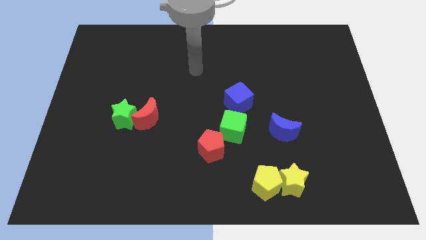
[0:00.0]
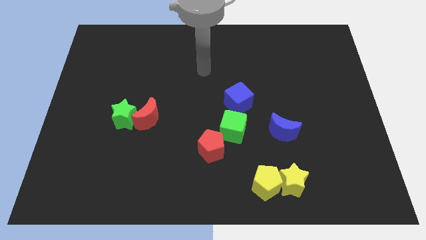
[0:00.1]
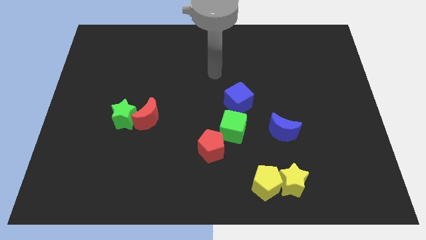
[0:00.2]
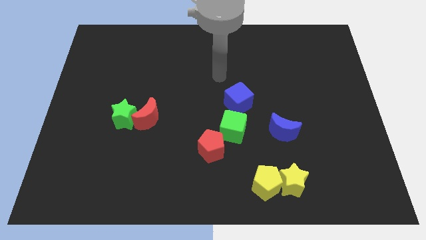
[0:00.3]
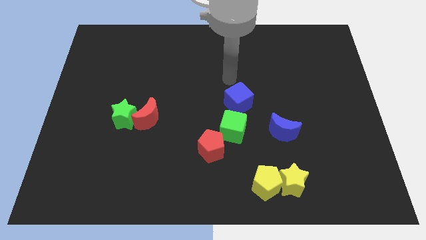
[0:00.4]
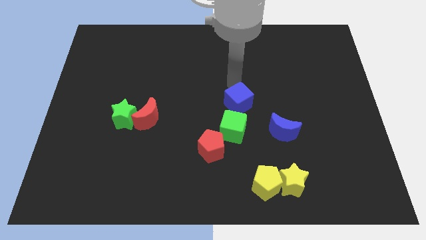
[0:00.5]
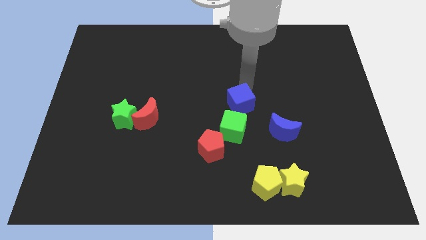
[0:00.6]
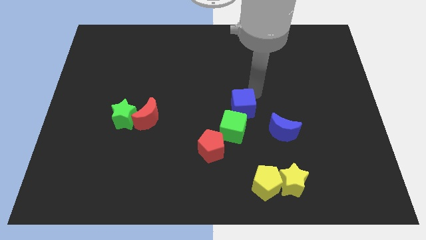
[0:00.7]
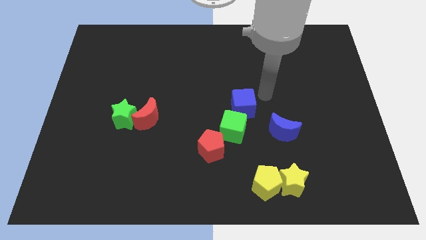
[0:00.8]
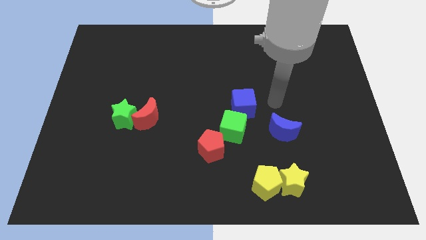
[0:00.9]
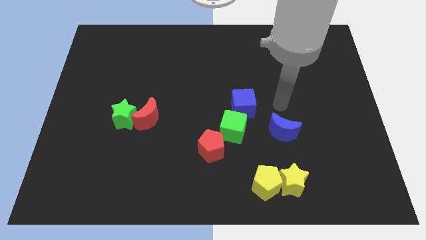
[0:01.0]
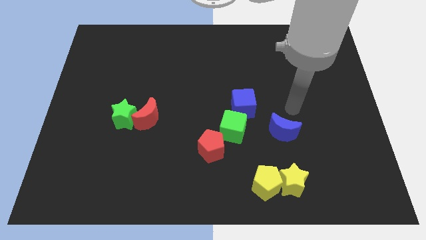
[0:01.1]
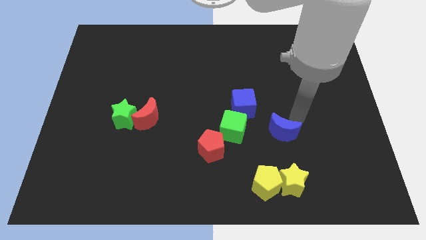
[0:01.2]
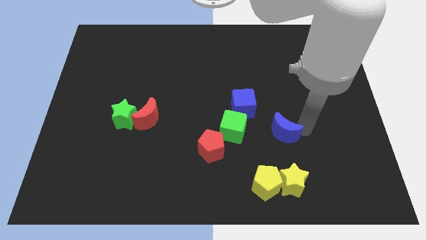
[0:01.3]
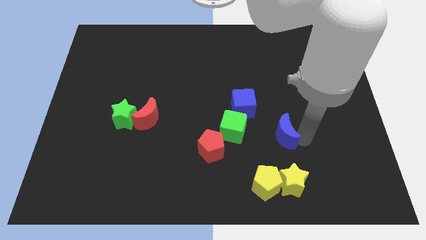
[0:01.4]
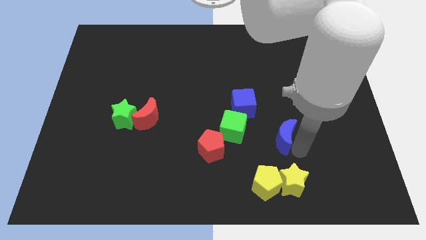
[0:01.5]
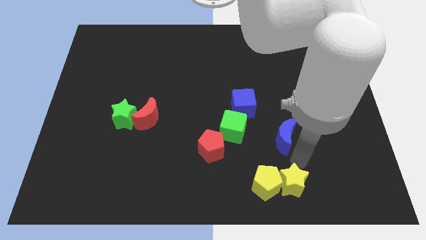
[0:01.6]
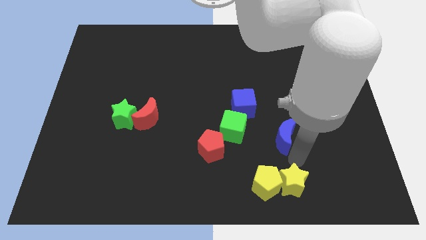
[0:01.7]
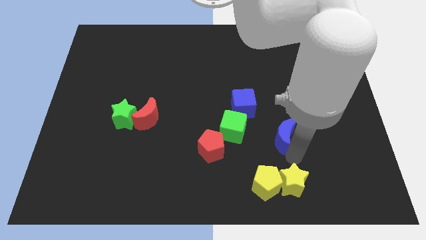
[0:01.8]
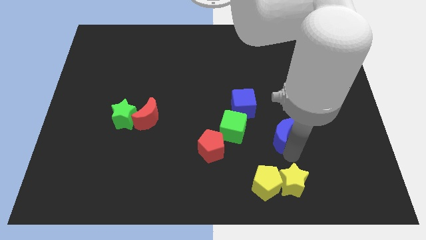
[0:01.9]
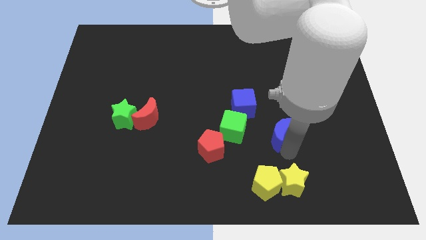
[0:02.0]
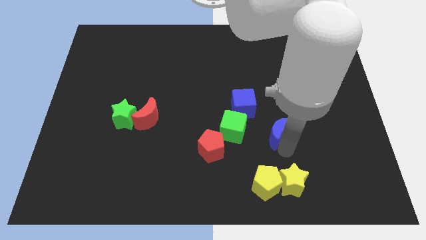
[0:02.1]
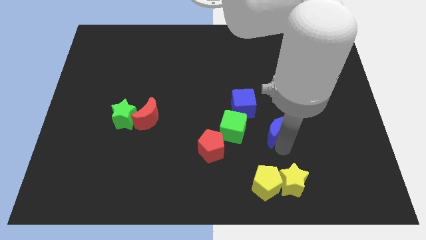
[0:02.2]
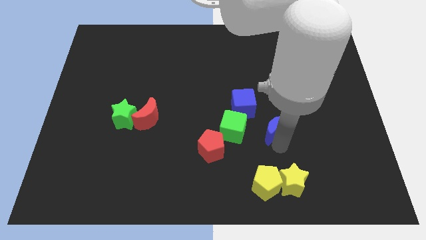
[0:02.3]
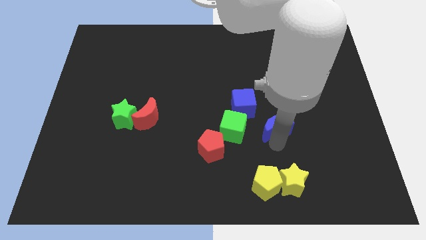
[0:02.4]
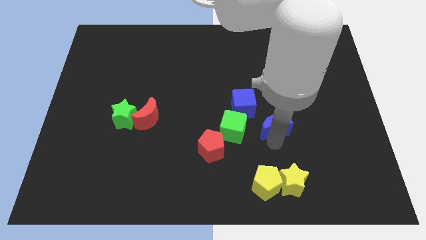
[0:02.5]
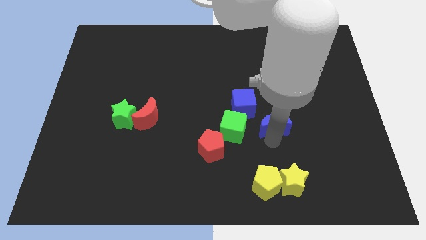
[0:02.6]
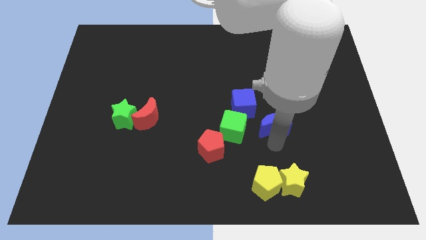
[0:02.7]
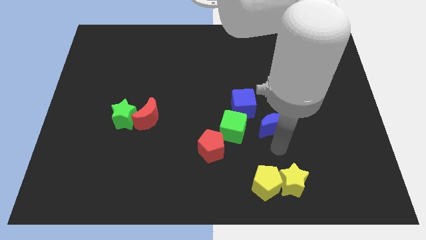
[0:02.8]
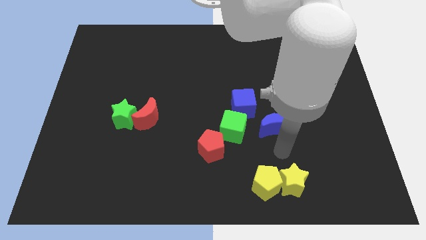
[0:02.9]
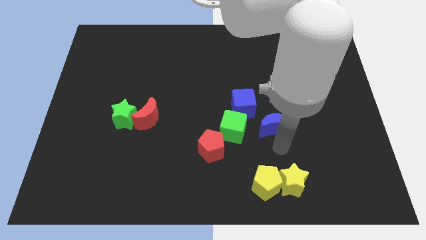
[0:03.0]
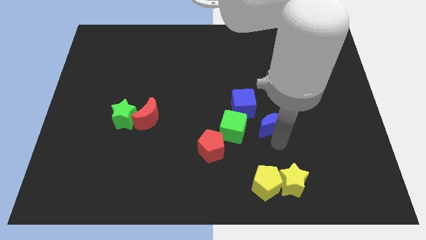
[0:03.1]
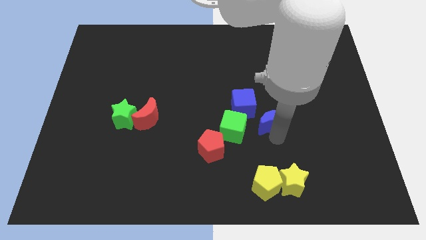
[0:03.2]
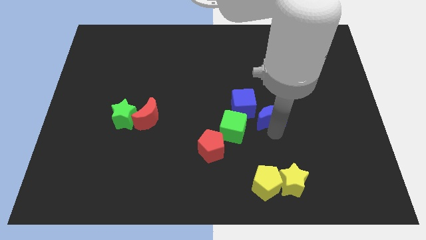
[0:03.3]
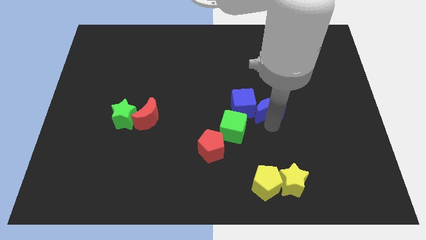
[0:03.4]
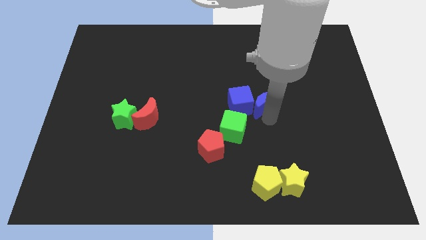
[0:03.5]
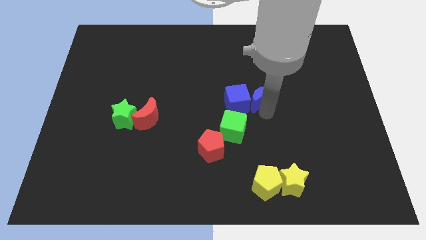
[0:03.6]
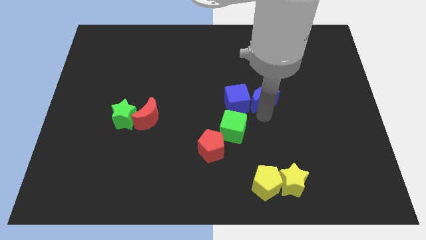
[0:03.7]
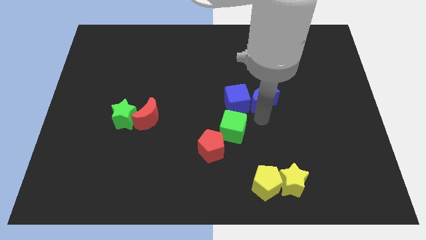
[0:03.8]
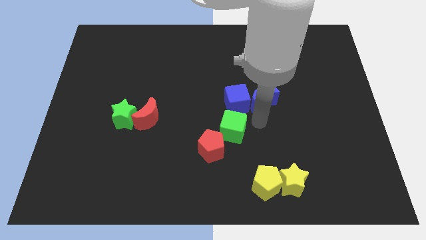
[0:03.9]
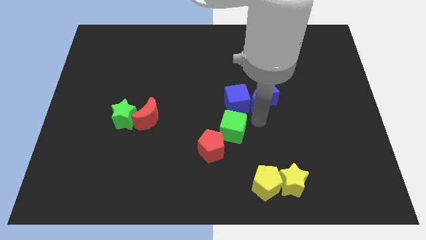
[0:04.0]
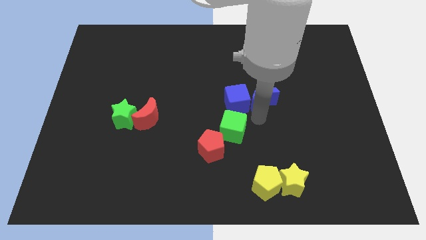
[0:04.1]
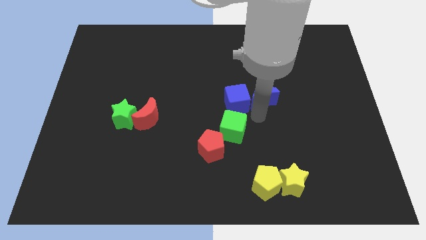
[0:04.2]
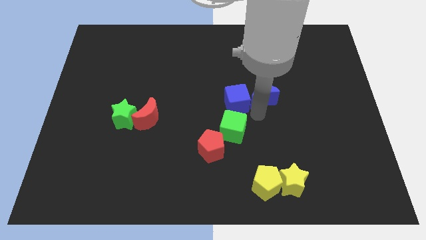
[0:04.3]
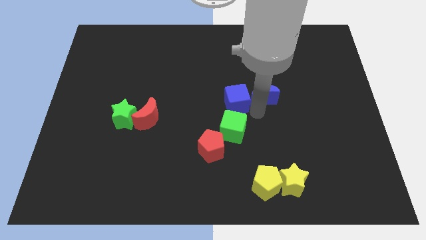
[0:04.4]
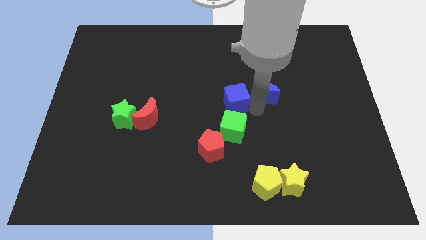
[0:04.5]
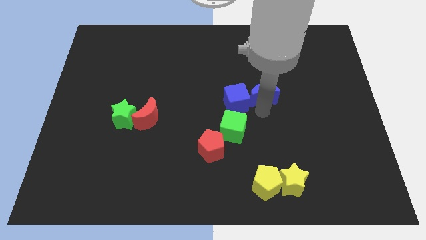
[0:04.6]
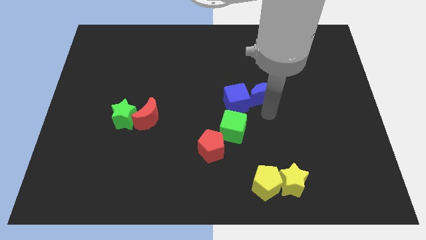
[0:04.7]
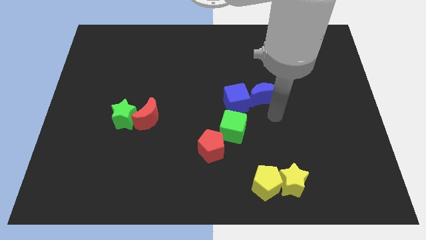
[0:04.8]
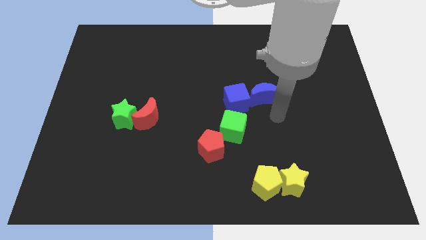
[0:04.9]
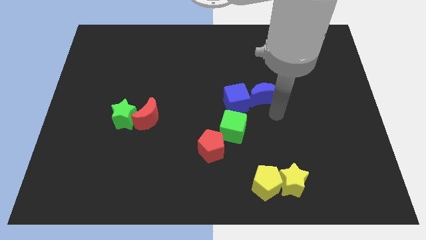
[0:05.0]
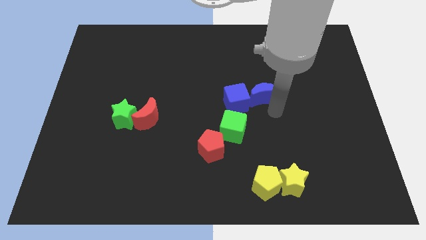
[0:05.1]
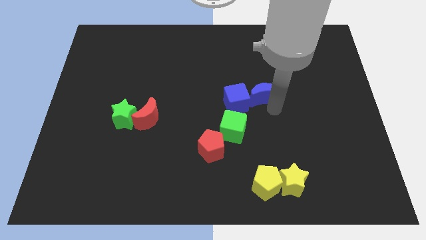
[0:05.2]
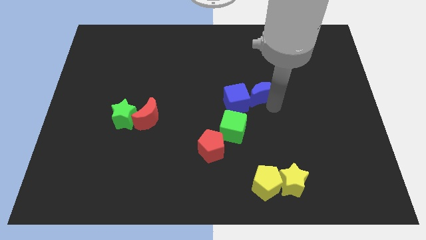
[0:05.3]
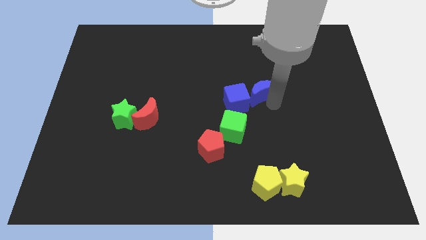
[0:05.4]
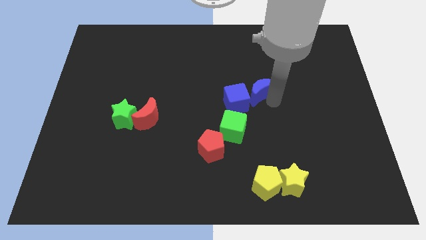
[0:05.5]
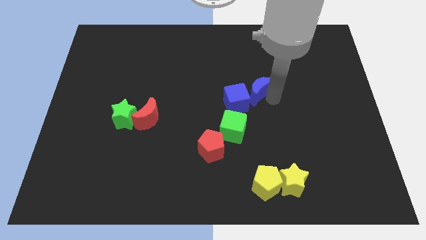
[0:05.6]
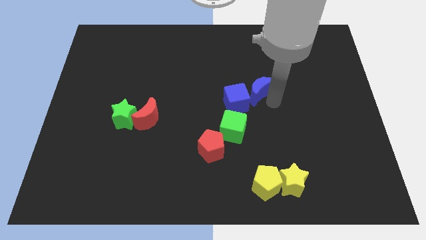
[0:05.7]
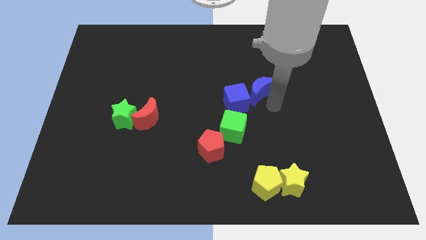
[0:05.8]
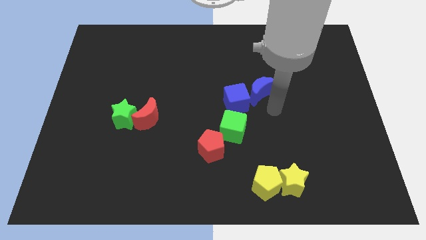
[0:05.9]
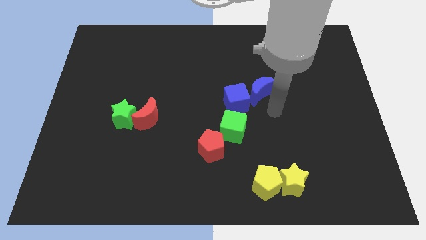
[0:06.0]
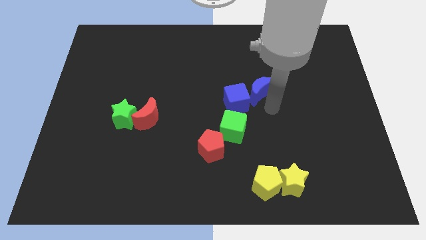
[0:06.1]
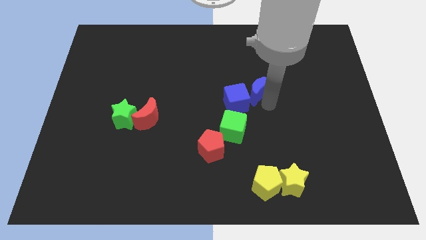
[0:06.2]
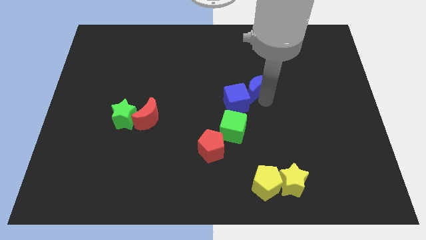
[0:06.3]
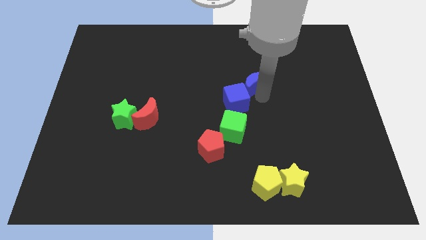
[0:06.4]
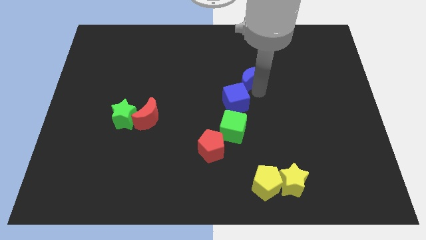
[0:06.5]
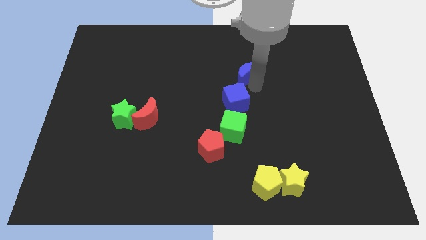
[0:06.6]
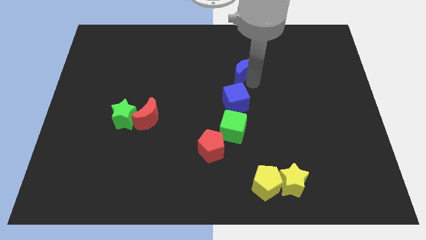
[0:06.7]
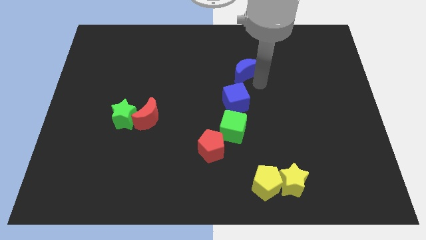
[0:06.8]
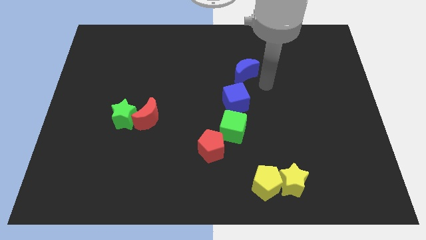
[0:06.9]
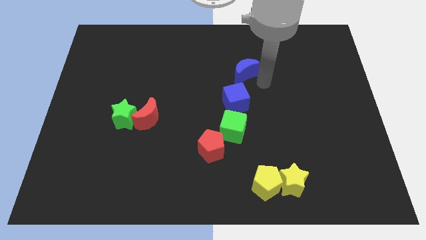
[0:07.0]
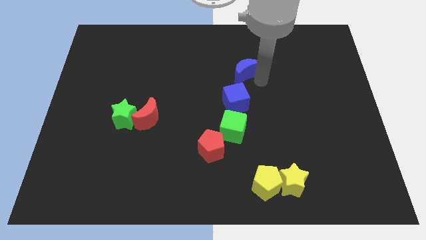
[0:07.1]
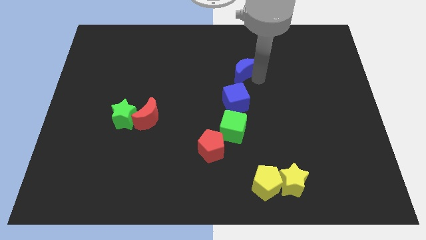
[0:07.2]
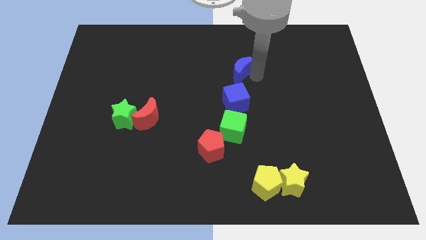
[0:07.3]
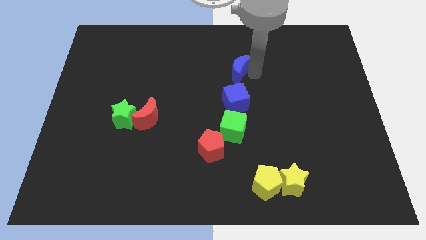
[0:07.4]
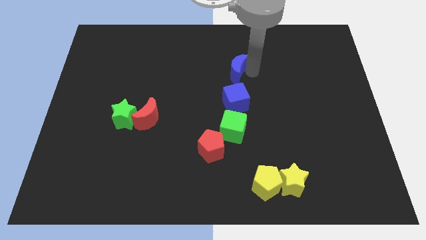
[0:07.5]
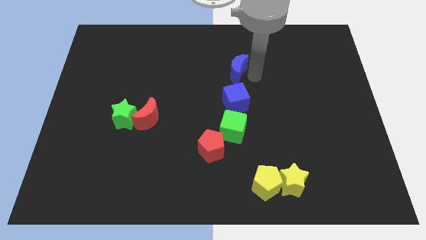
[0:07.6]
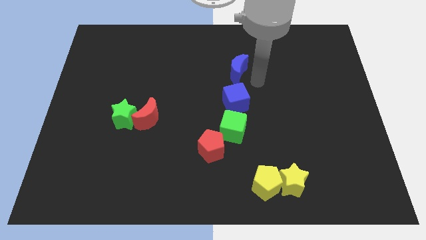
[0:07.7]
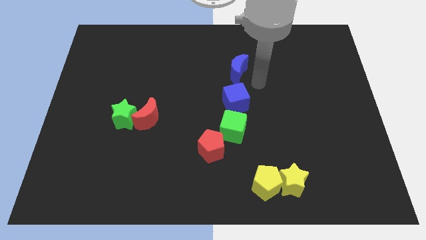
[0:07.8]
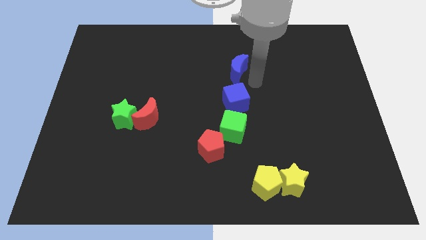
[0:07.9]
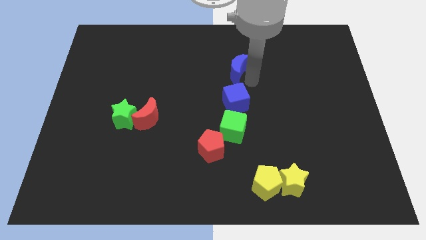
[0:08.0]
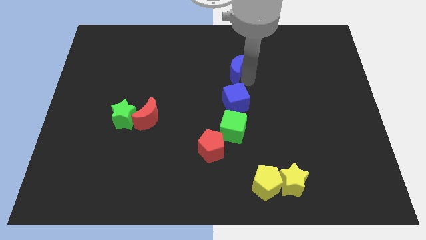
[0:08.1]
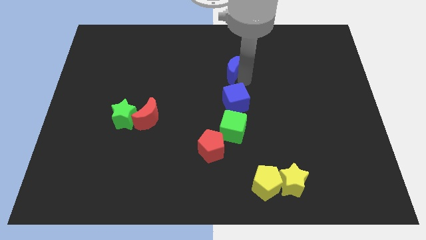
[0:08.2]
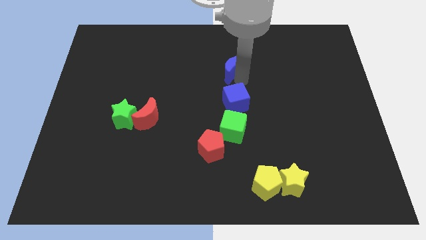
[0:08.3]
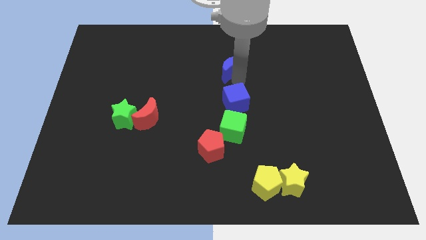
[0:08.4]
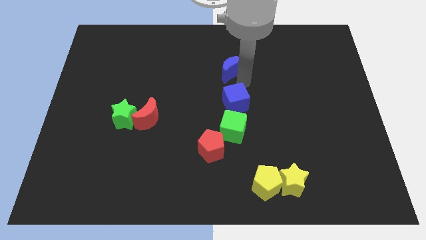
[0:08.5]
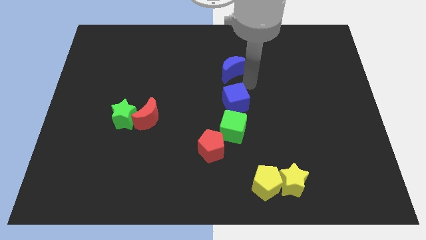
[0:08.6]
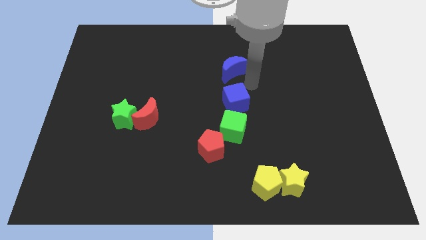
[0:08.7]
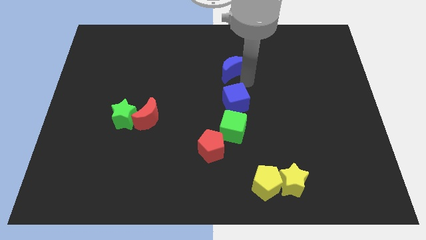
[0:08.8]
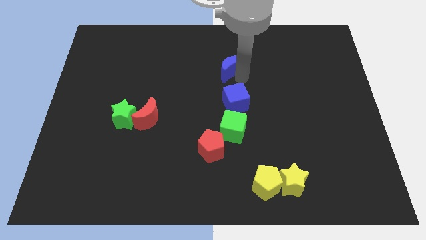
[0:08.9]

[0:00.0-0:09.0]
slide the blue moon up and then to the left
